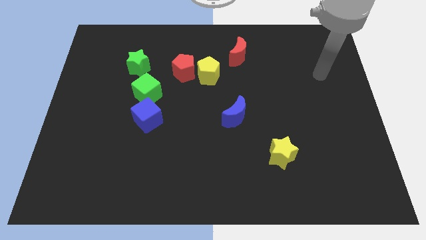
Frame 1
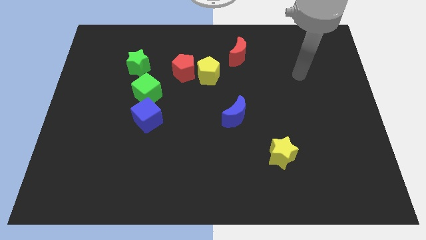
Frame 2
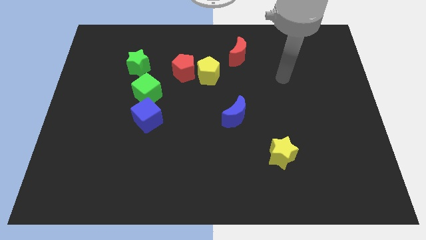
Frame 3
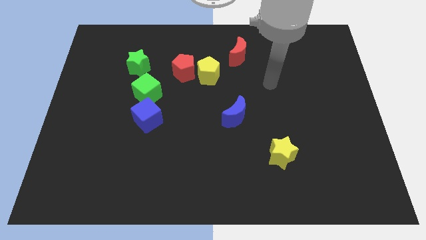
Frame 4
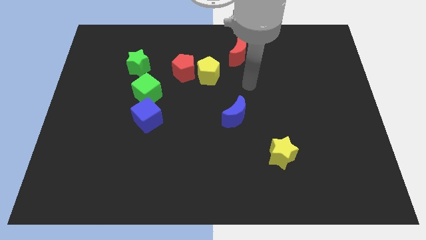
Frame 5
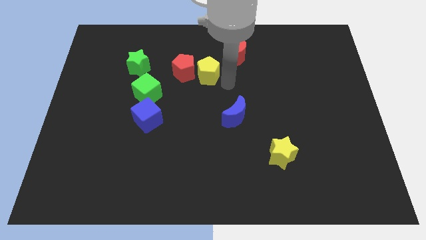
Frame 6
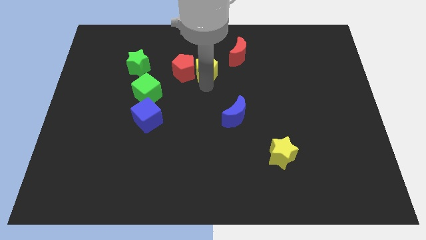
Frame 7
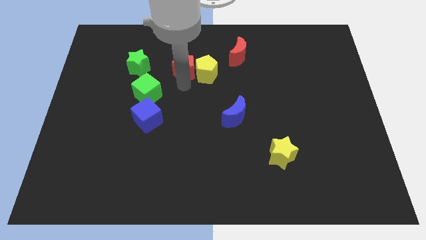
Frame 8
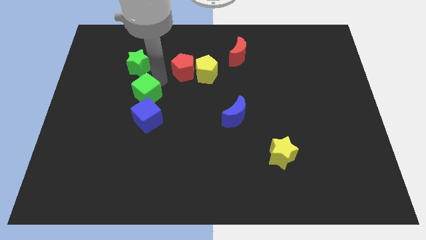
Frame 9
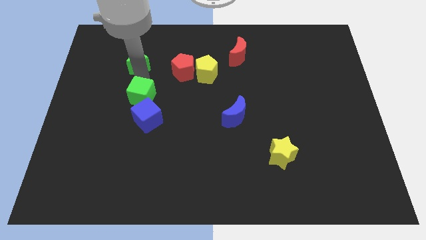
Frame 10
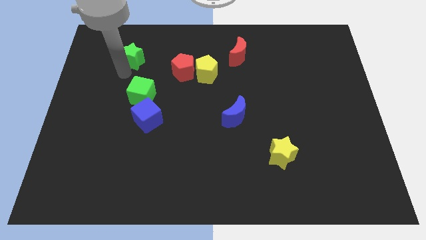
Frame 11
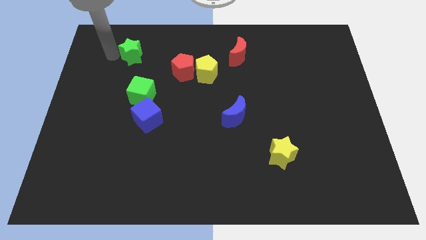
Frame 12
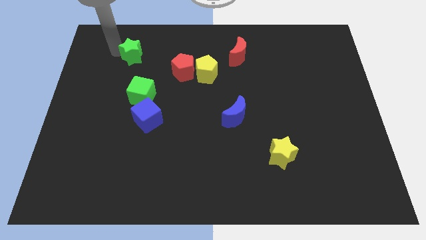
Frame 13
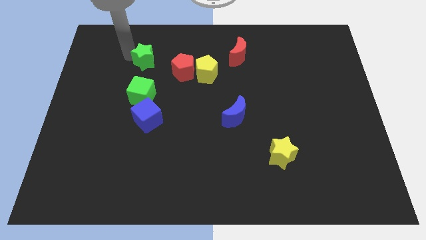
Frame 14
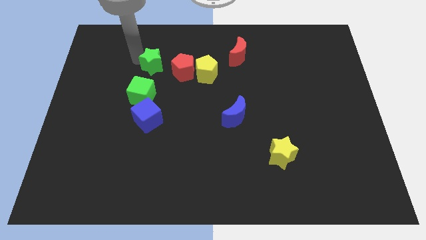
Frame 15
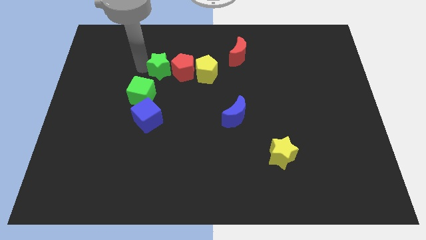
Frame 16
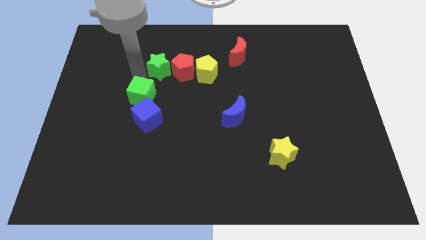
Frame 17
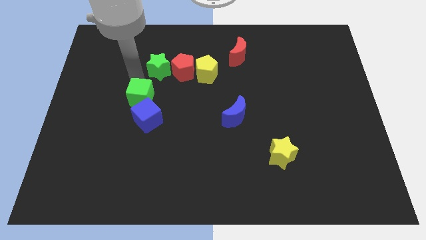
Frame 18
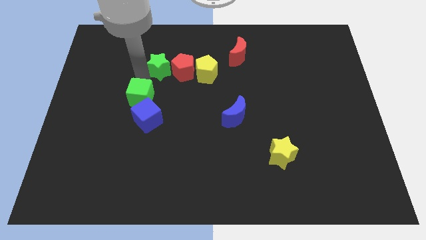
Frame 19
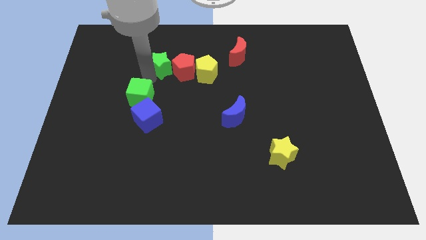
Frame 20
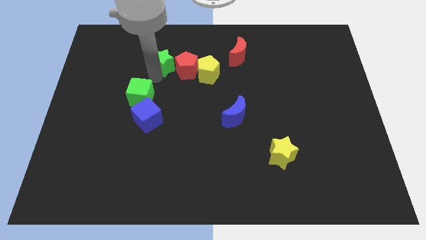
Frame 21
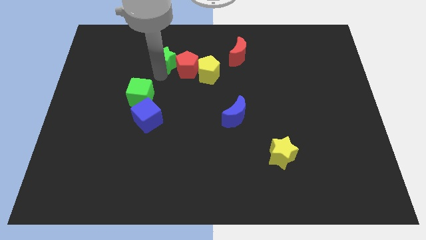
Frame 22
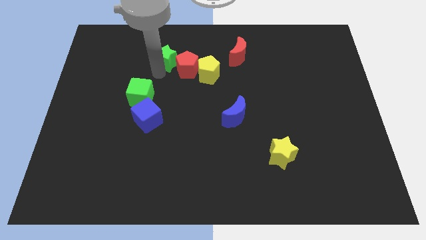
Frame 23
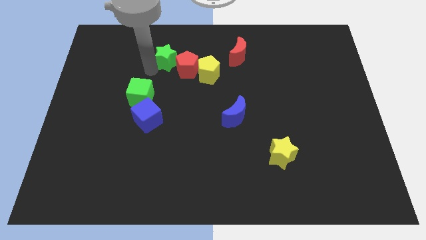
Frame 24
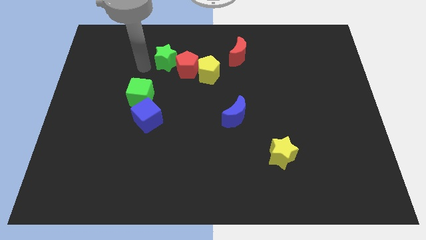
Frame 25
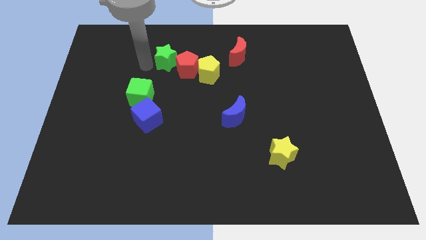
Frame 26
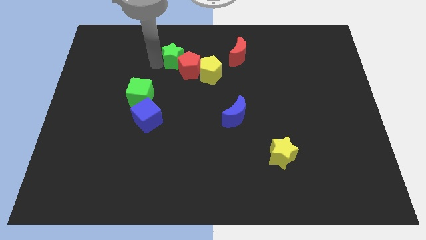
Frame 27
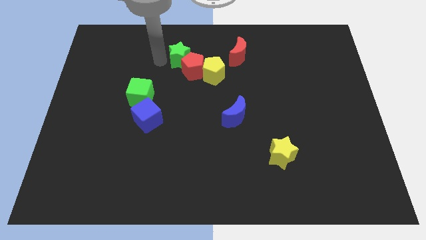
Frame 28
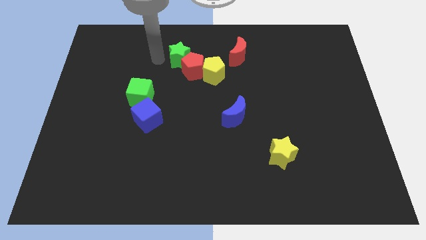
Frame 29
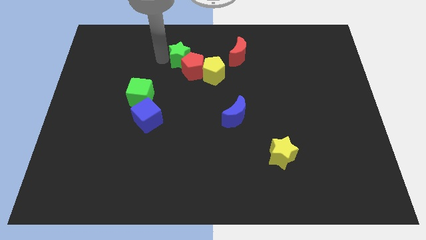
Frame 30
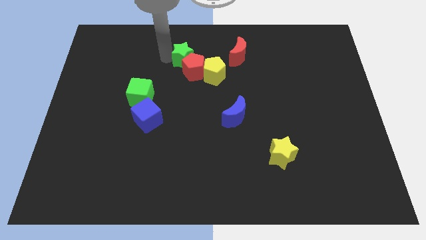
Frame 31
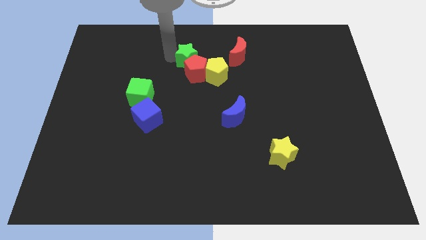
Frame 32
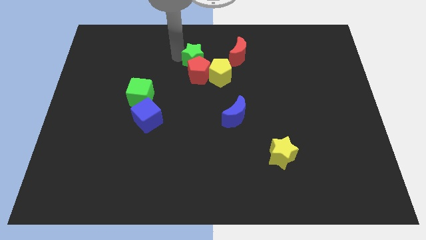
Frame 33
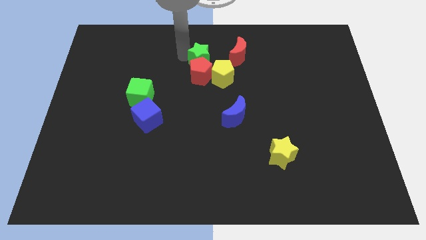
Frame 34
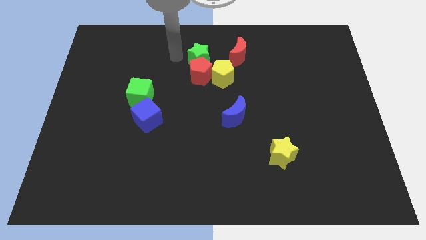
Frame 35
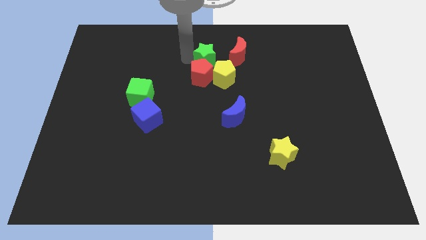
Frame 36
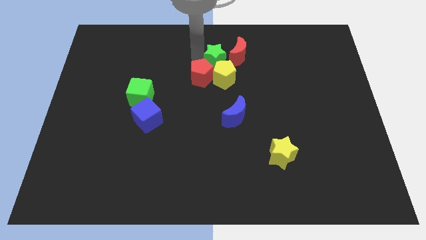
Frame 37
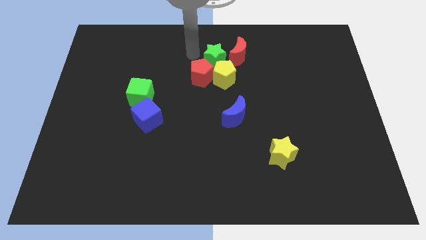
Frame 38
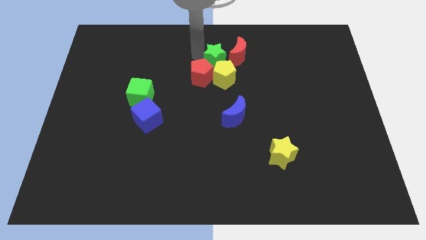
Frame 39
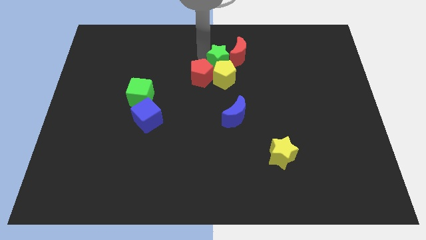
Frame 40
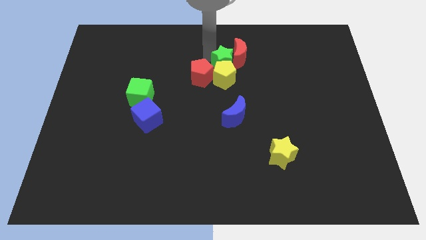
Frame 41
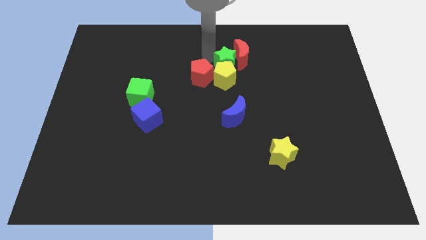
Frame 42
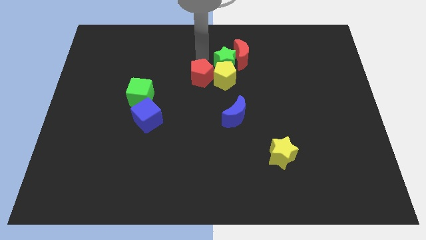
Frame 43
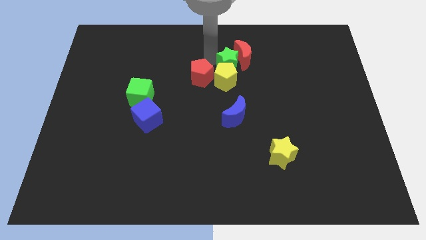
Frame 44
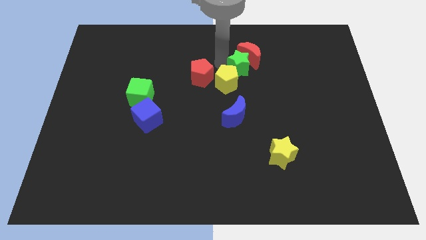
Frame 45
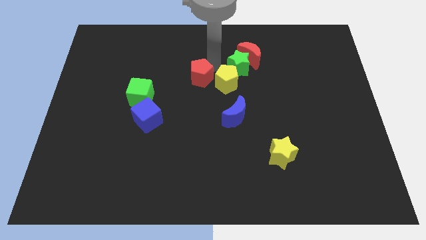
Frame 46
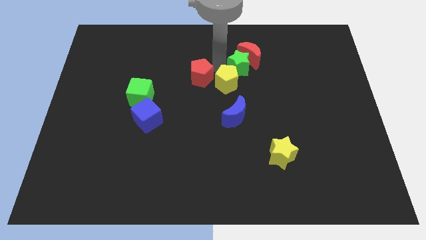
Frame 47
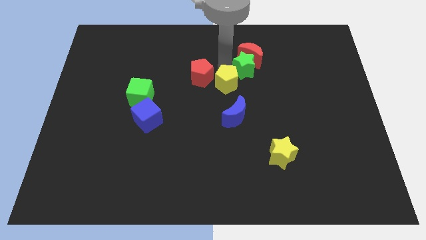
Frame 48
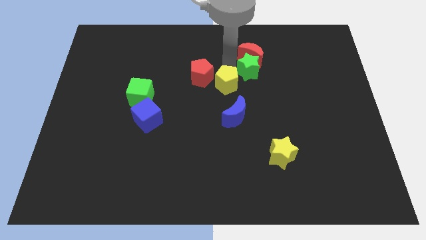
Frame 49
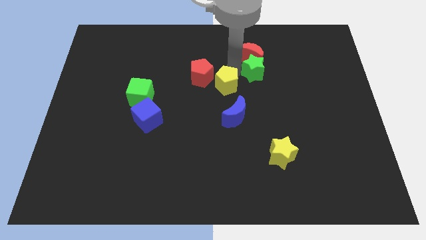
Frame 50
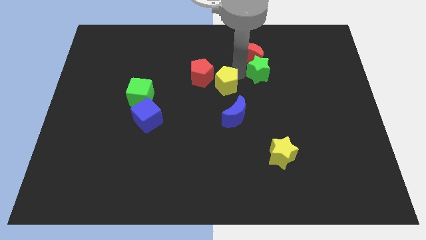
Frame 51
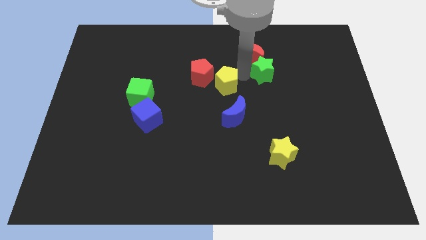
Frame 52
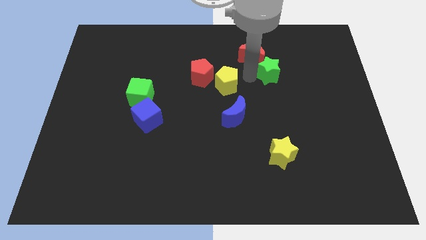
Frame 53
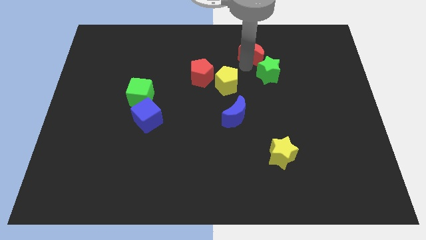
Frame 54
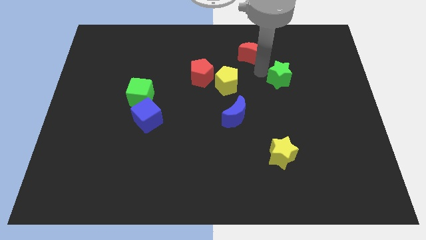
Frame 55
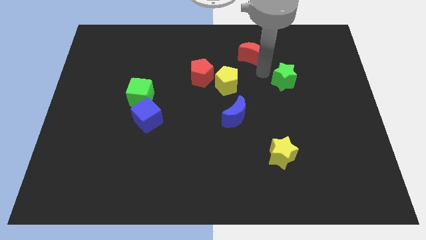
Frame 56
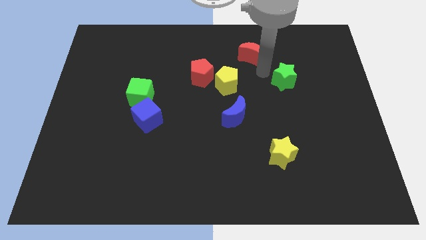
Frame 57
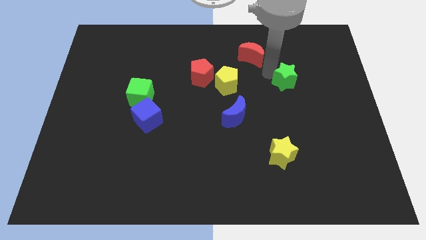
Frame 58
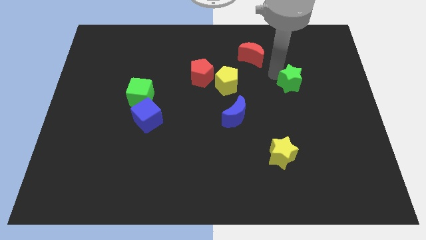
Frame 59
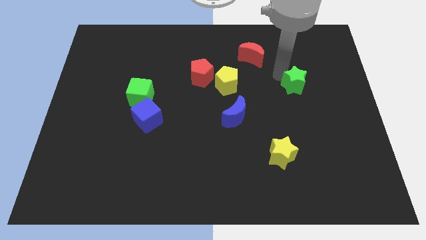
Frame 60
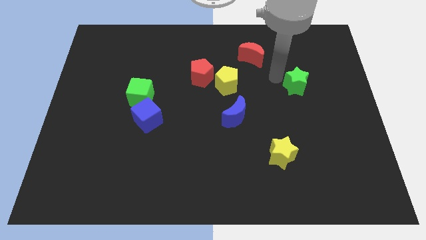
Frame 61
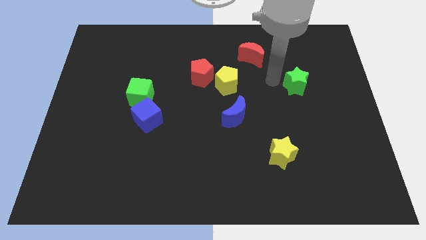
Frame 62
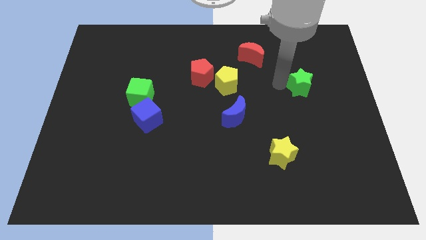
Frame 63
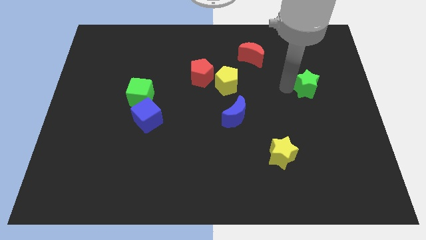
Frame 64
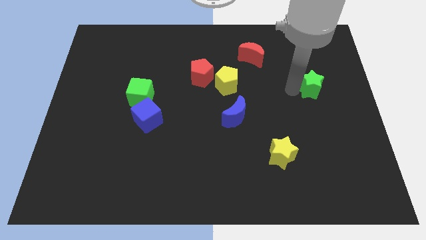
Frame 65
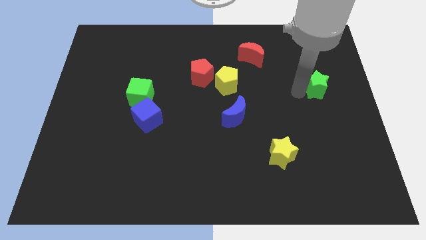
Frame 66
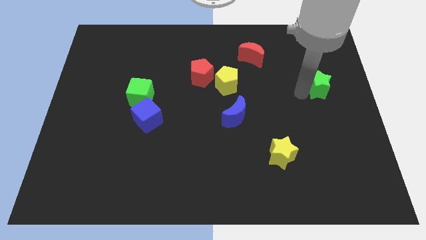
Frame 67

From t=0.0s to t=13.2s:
move the green star to the center right
